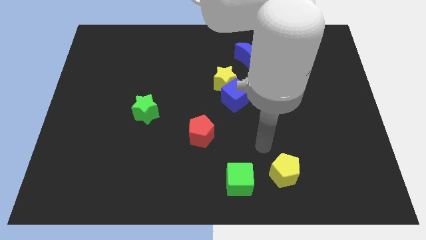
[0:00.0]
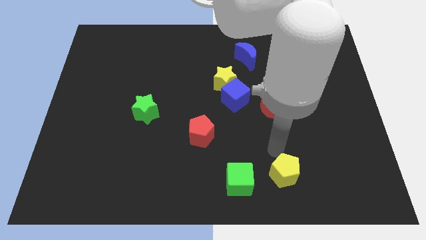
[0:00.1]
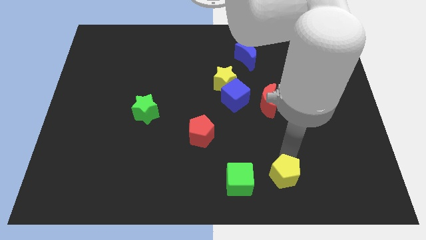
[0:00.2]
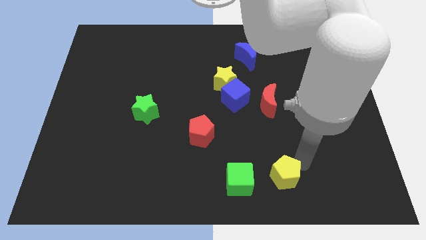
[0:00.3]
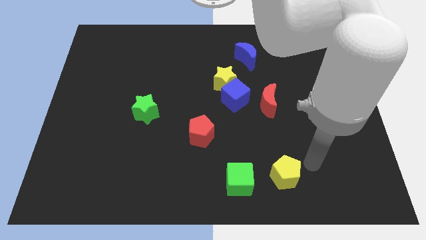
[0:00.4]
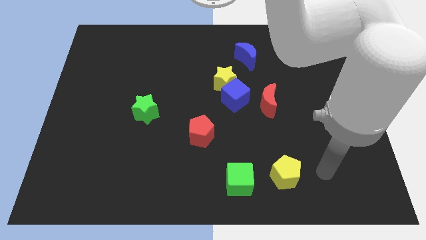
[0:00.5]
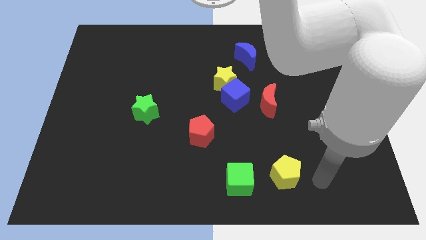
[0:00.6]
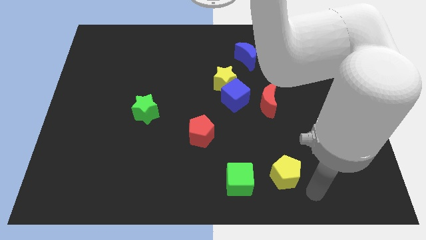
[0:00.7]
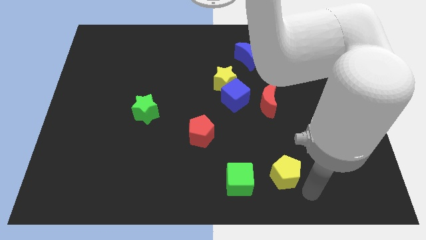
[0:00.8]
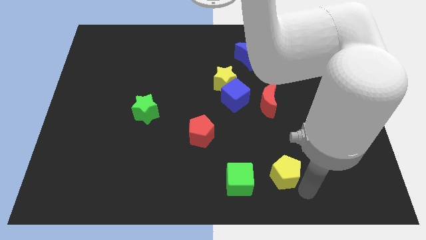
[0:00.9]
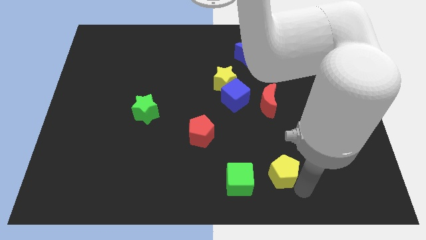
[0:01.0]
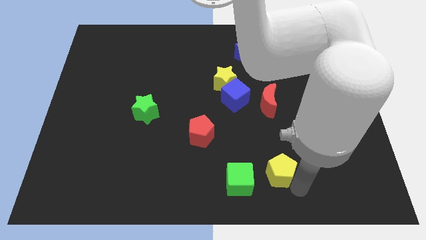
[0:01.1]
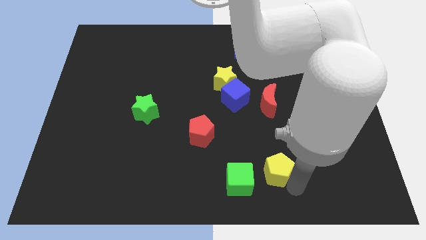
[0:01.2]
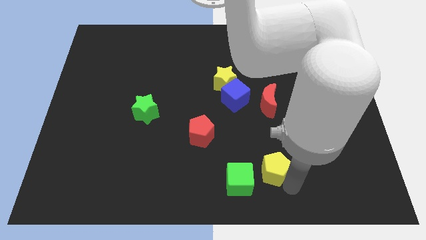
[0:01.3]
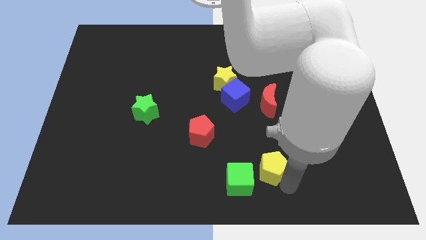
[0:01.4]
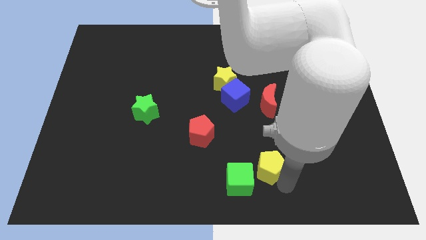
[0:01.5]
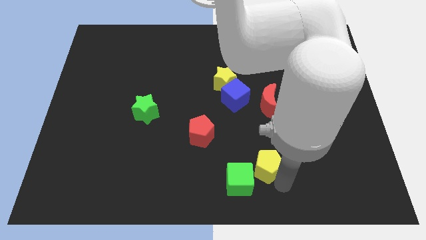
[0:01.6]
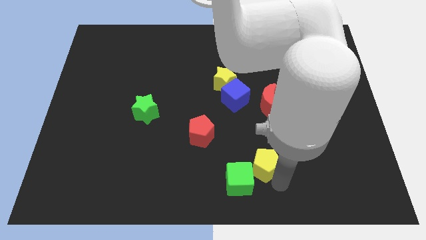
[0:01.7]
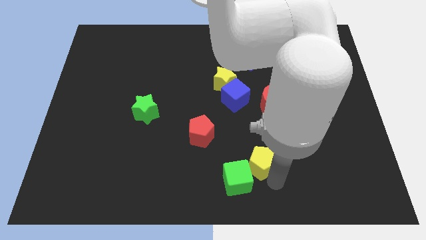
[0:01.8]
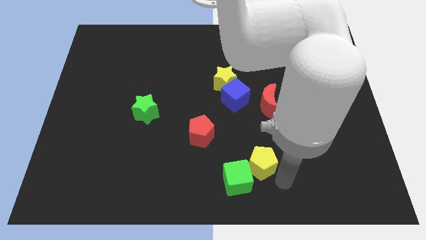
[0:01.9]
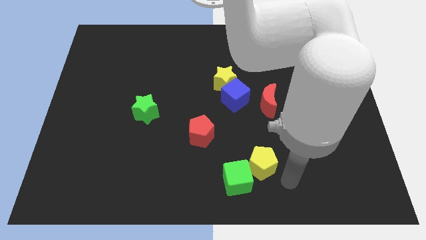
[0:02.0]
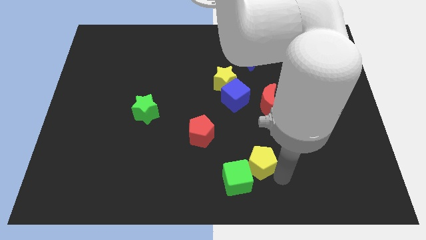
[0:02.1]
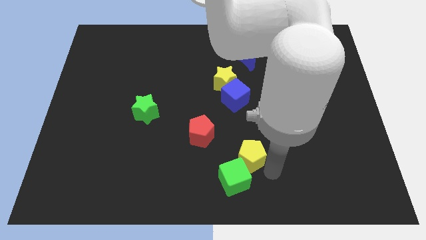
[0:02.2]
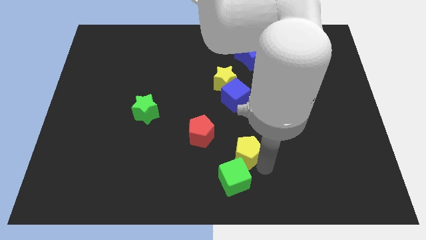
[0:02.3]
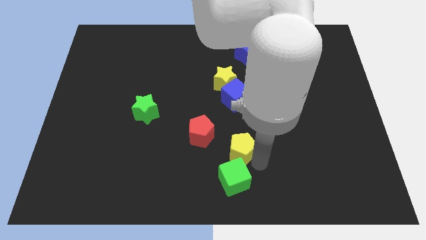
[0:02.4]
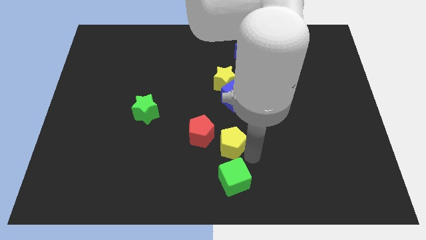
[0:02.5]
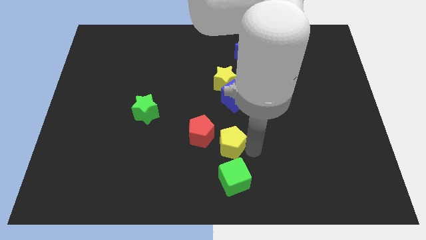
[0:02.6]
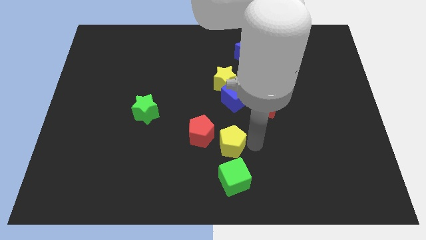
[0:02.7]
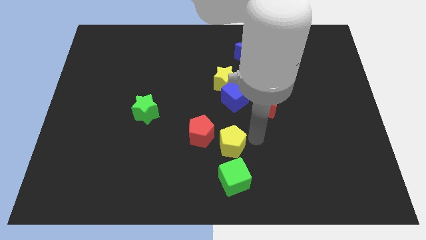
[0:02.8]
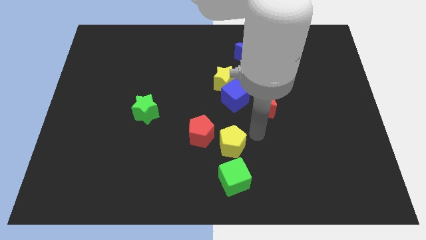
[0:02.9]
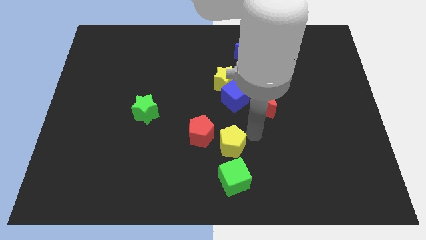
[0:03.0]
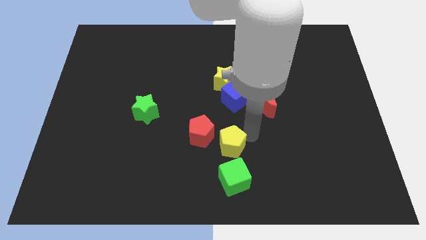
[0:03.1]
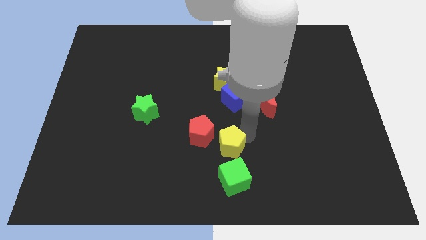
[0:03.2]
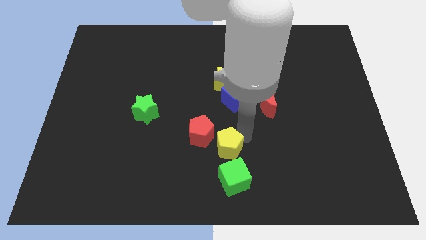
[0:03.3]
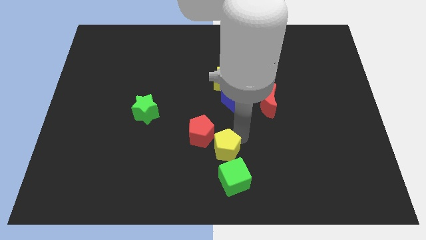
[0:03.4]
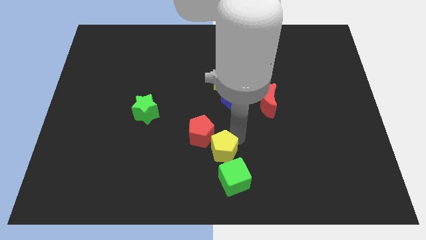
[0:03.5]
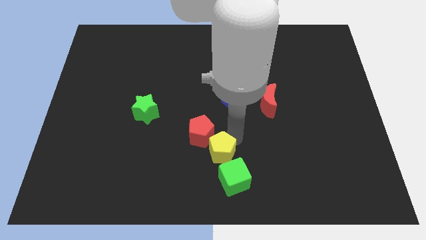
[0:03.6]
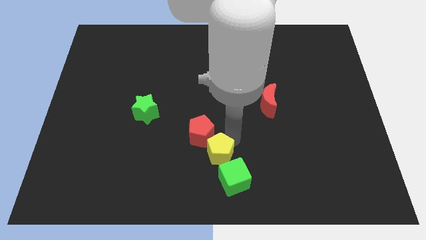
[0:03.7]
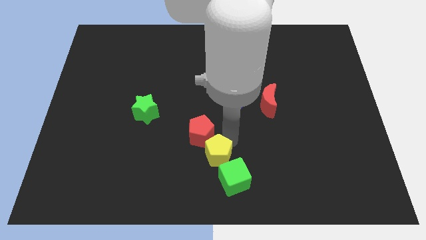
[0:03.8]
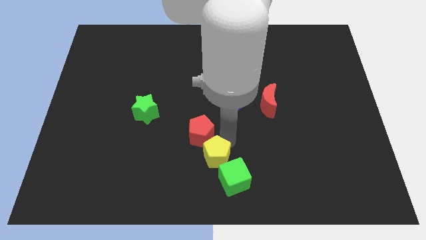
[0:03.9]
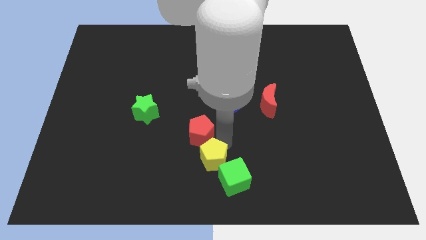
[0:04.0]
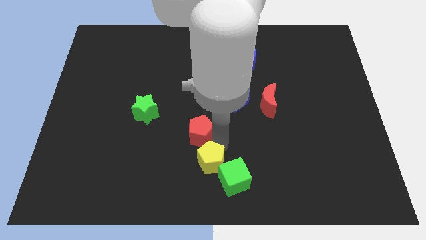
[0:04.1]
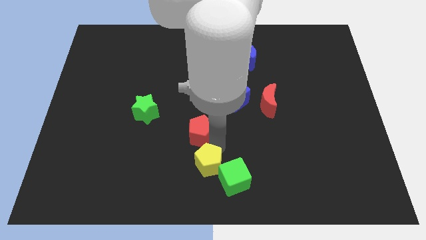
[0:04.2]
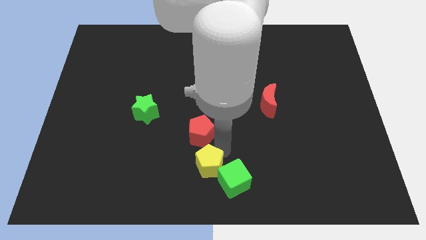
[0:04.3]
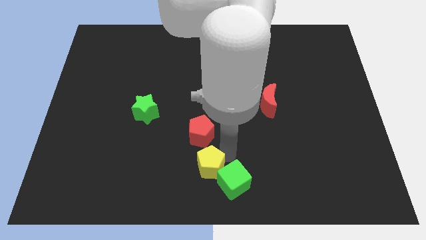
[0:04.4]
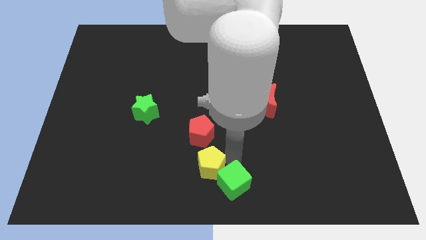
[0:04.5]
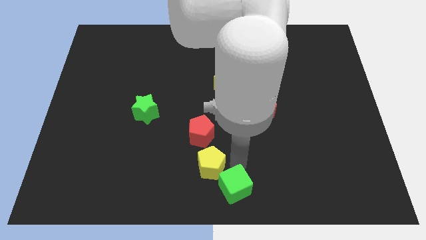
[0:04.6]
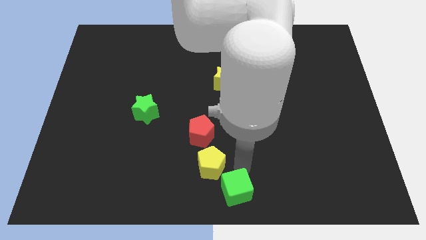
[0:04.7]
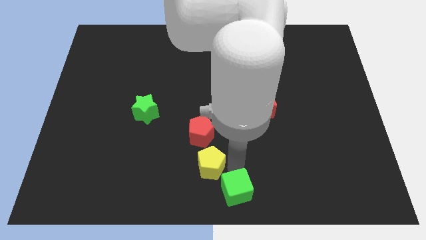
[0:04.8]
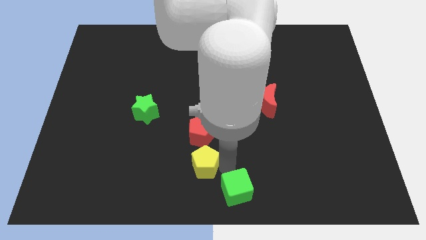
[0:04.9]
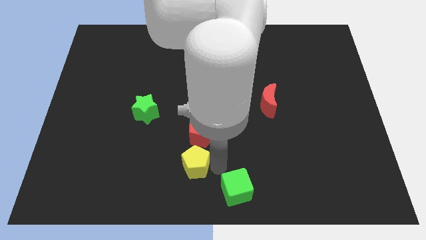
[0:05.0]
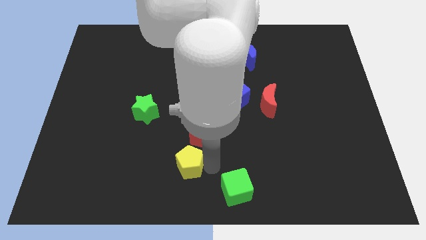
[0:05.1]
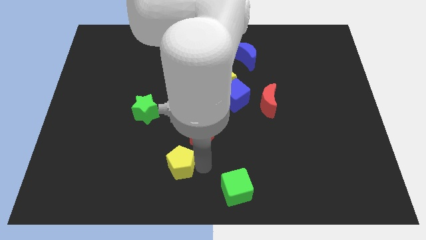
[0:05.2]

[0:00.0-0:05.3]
move the yellow pentagon to the left

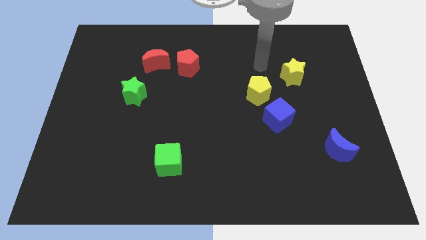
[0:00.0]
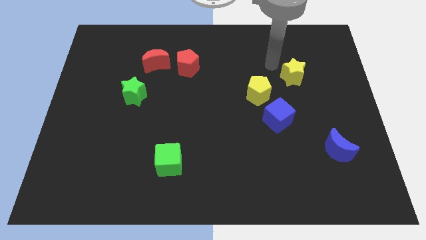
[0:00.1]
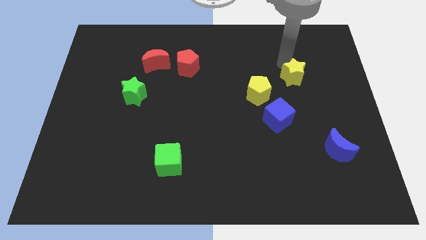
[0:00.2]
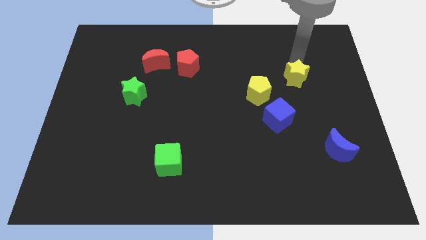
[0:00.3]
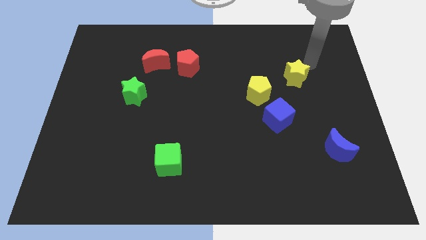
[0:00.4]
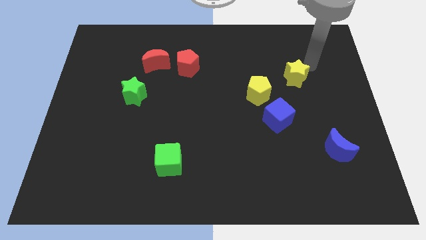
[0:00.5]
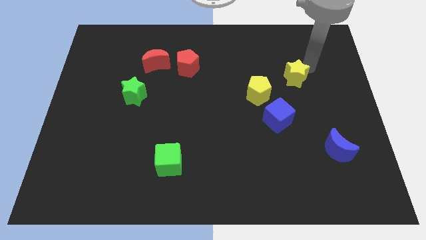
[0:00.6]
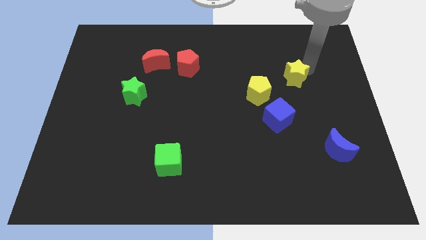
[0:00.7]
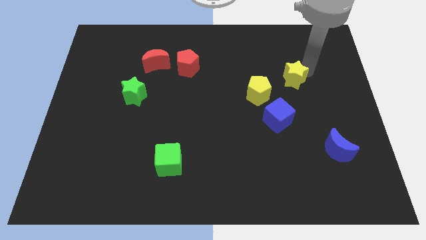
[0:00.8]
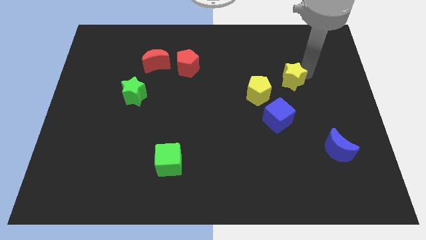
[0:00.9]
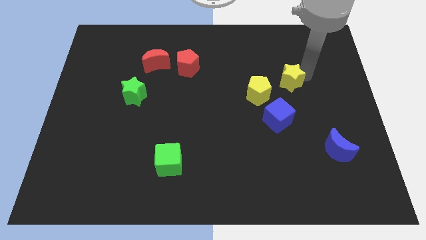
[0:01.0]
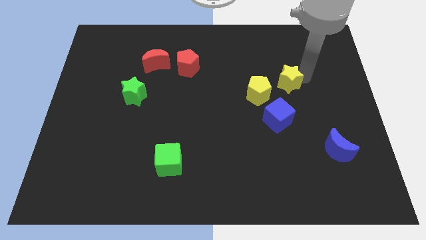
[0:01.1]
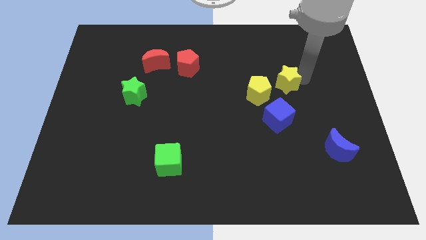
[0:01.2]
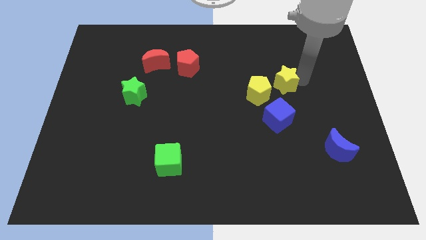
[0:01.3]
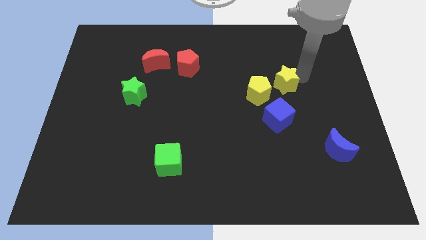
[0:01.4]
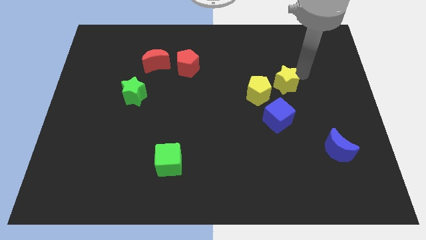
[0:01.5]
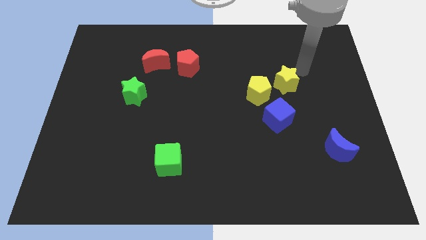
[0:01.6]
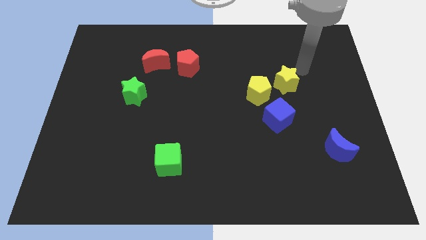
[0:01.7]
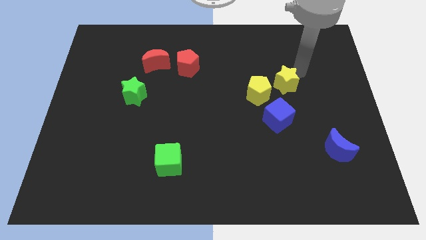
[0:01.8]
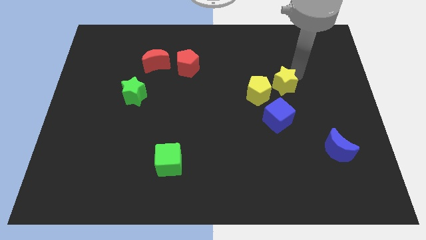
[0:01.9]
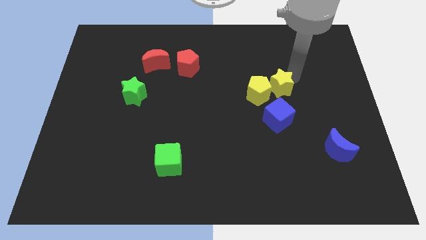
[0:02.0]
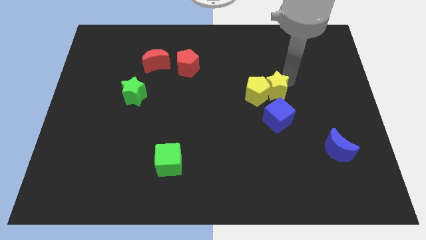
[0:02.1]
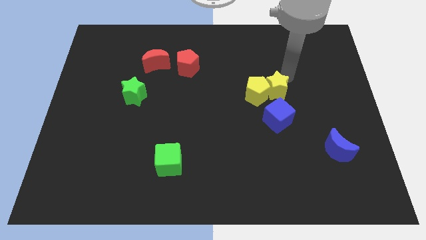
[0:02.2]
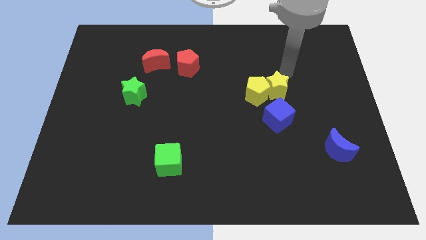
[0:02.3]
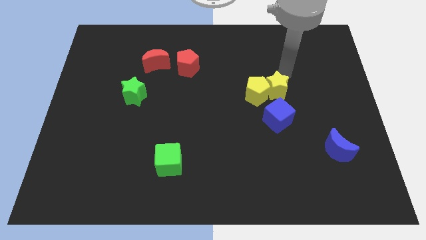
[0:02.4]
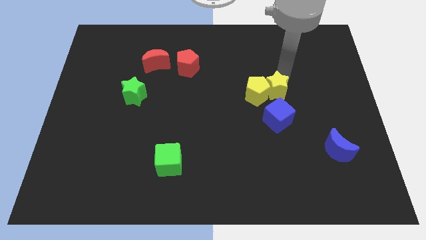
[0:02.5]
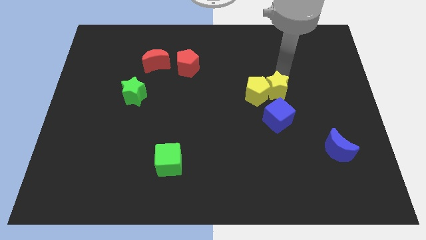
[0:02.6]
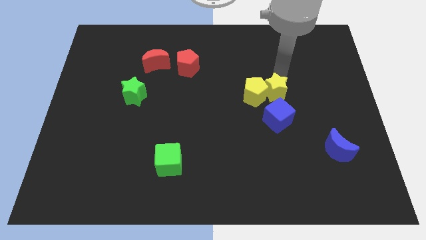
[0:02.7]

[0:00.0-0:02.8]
push the yellow star diagonally downwards and left slightly
